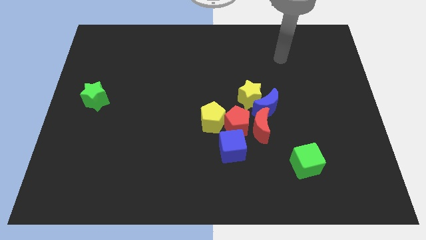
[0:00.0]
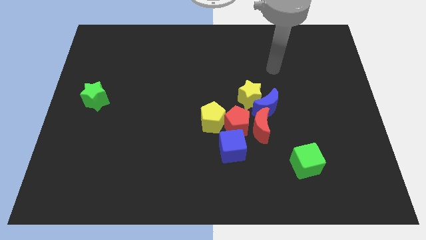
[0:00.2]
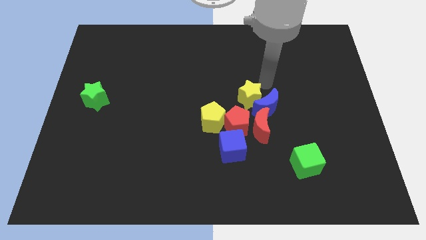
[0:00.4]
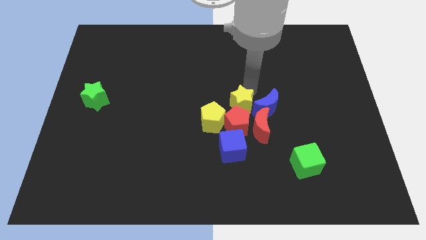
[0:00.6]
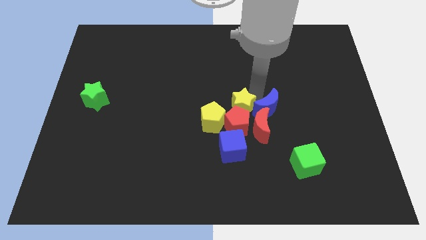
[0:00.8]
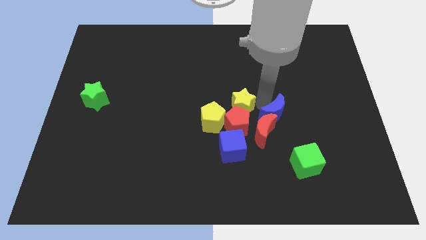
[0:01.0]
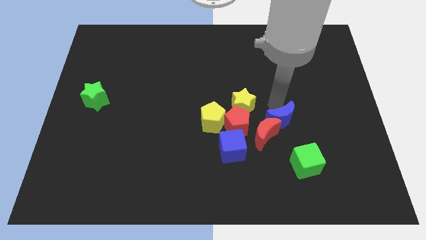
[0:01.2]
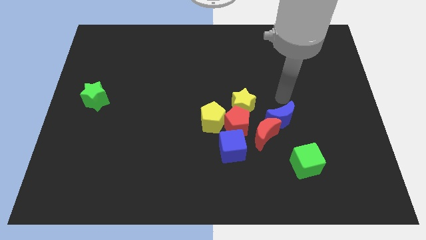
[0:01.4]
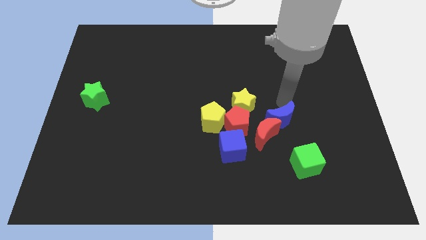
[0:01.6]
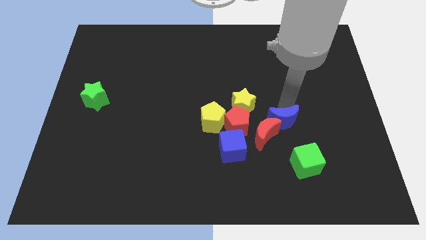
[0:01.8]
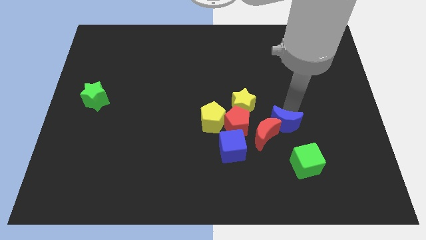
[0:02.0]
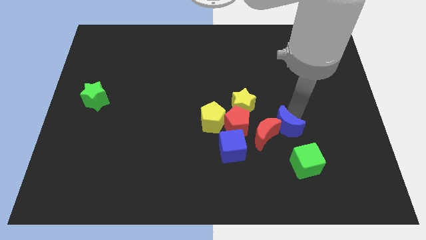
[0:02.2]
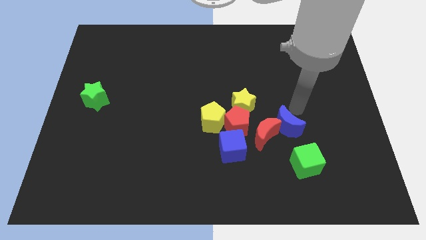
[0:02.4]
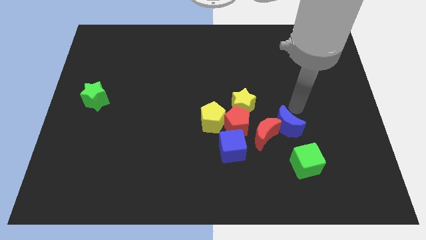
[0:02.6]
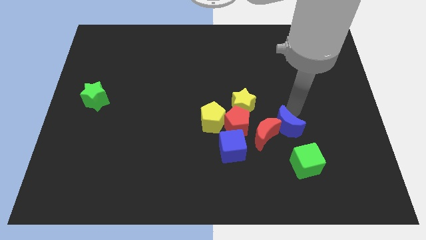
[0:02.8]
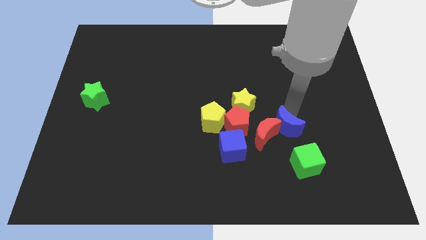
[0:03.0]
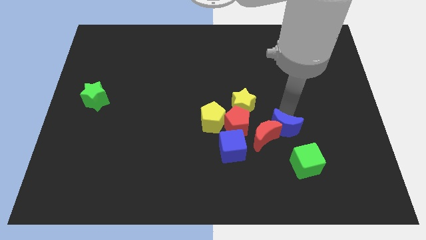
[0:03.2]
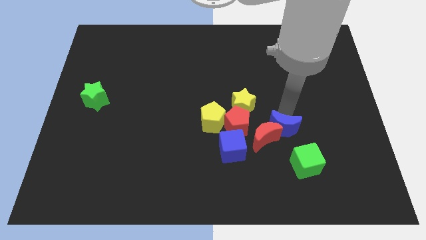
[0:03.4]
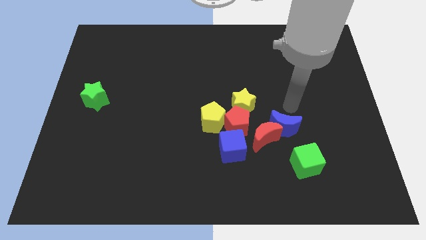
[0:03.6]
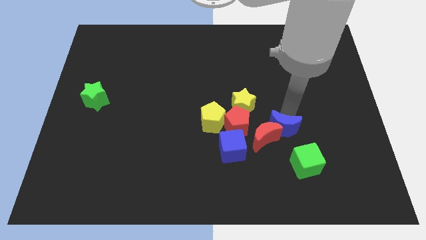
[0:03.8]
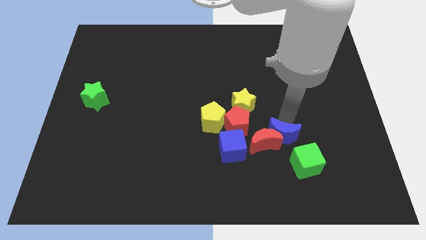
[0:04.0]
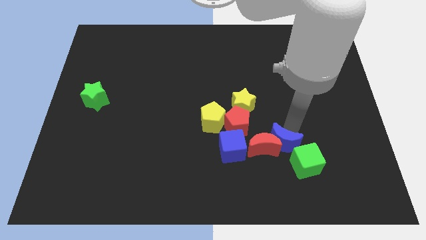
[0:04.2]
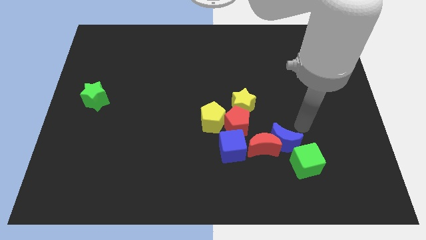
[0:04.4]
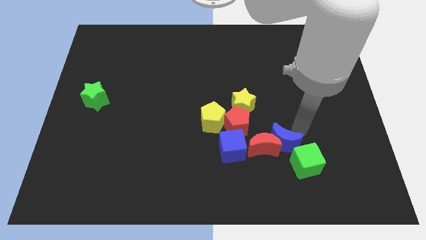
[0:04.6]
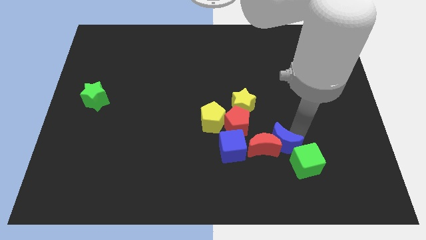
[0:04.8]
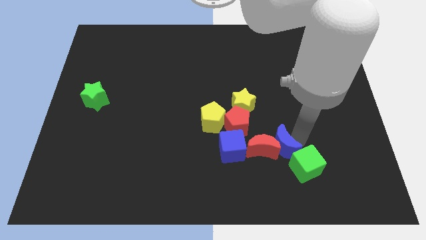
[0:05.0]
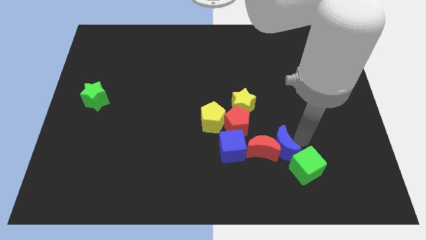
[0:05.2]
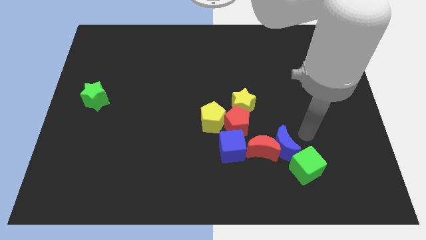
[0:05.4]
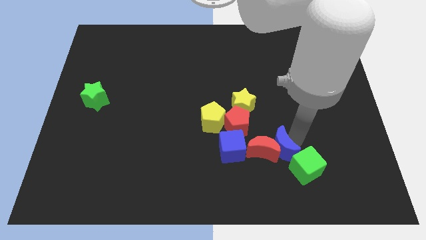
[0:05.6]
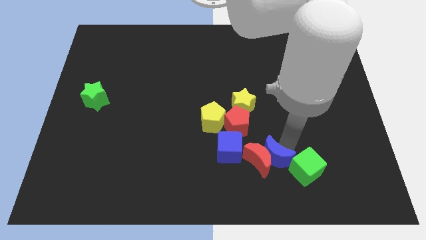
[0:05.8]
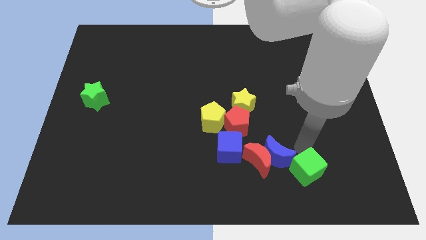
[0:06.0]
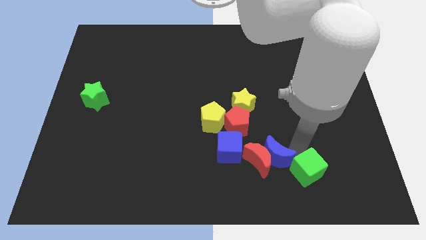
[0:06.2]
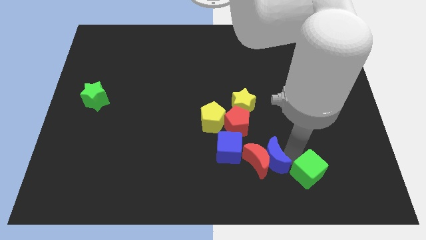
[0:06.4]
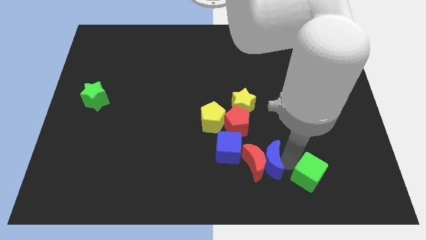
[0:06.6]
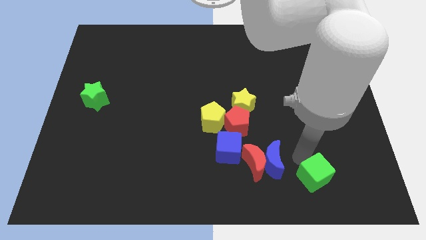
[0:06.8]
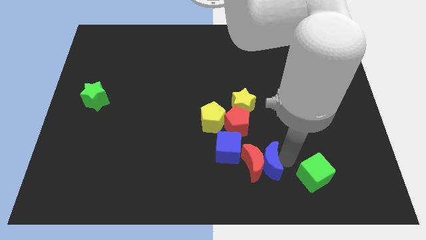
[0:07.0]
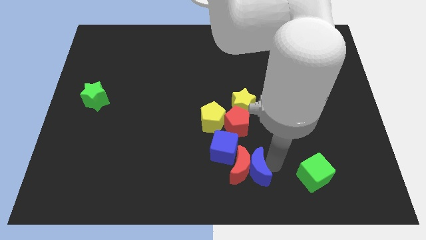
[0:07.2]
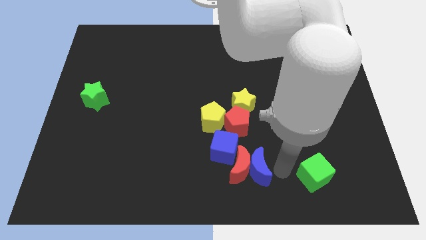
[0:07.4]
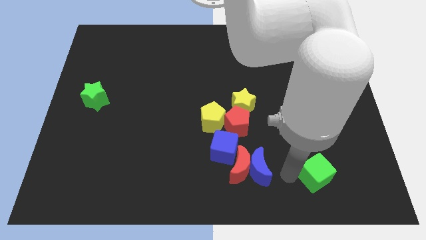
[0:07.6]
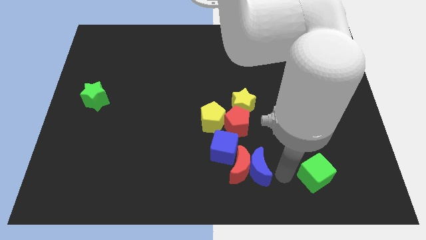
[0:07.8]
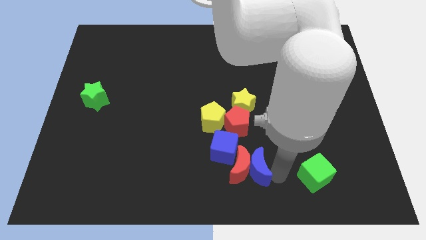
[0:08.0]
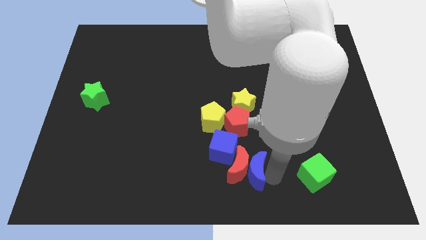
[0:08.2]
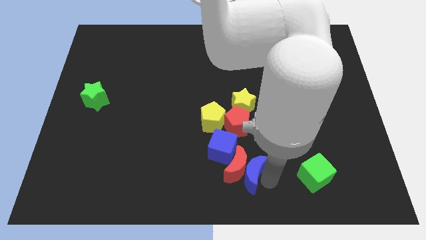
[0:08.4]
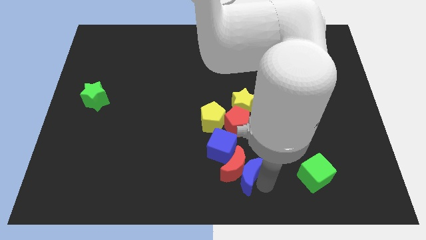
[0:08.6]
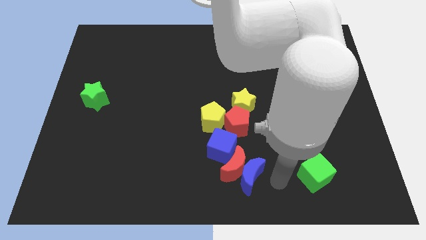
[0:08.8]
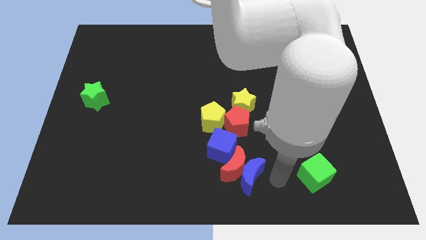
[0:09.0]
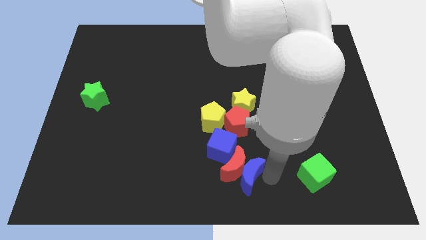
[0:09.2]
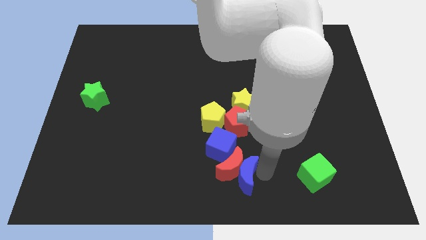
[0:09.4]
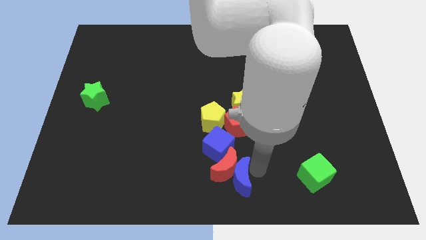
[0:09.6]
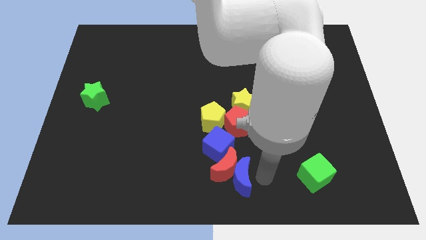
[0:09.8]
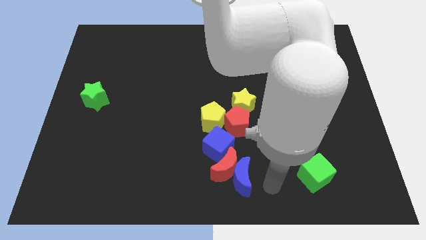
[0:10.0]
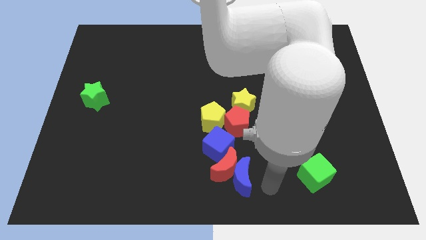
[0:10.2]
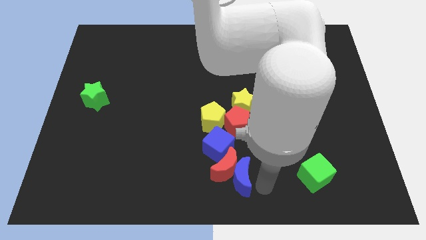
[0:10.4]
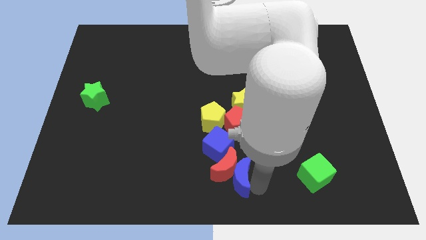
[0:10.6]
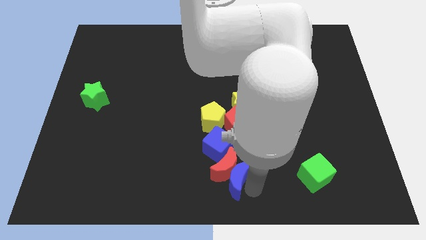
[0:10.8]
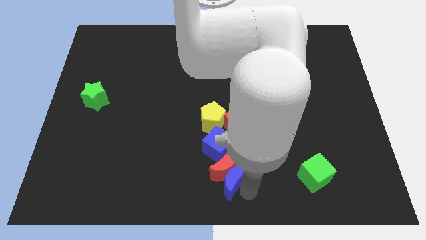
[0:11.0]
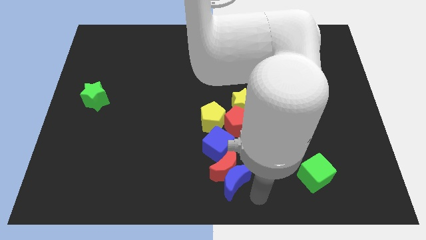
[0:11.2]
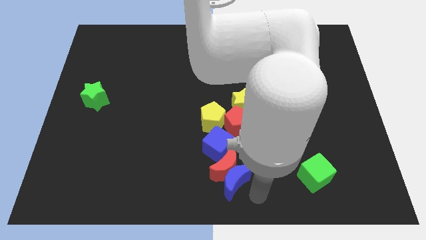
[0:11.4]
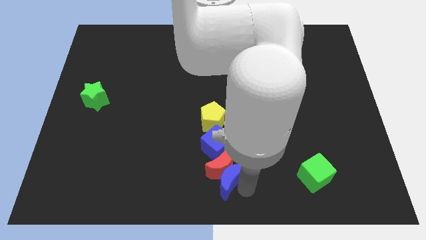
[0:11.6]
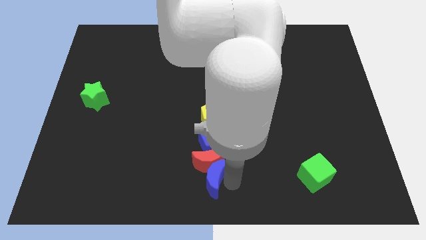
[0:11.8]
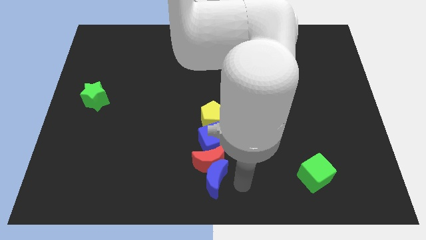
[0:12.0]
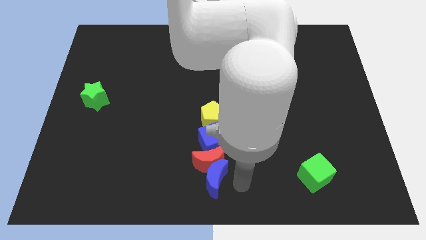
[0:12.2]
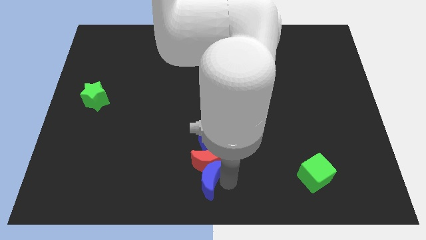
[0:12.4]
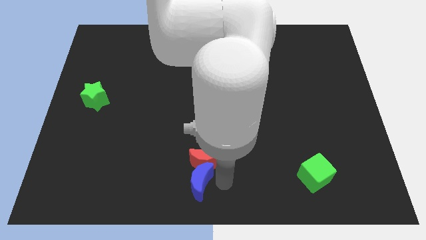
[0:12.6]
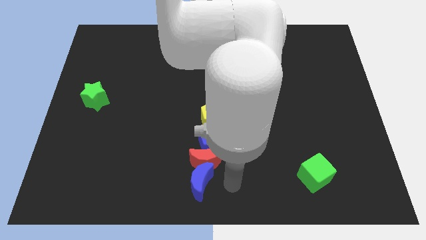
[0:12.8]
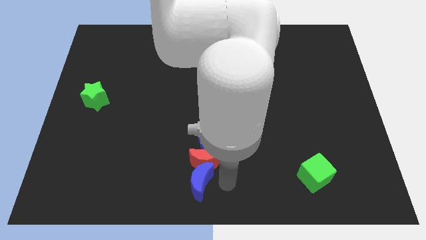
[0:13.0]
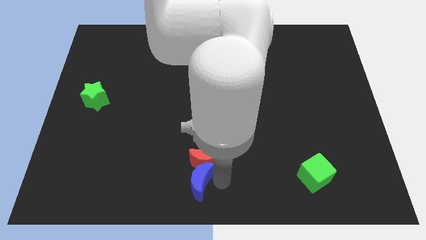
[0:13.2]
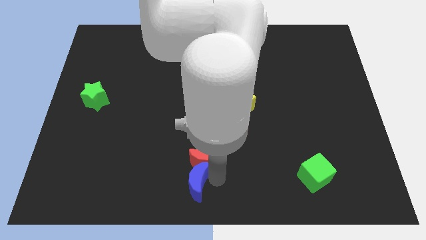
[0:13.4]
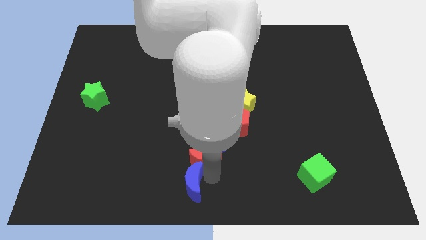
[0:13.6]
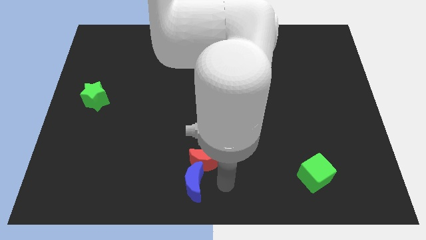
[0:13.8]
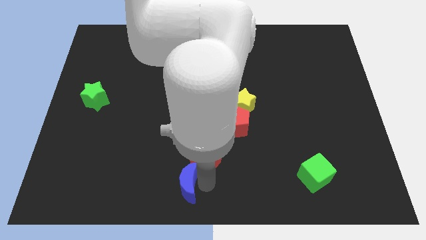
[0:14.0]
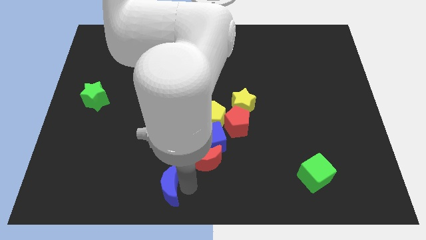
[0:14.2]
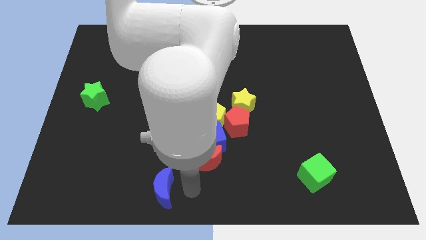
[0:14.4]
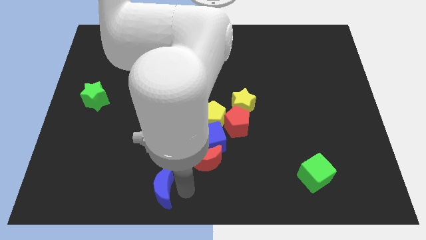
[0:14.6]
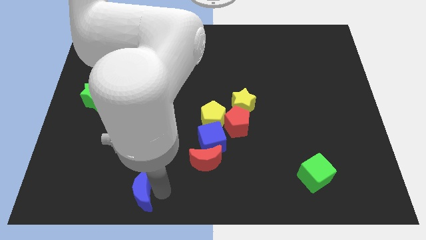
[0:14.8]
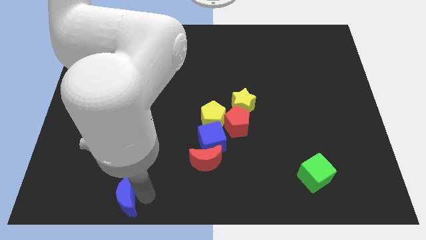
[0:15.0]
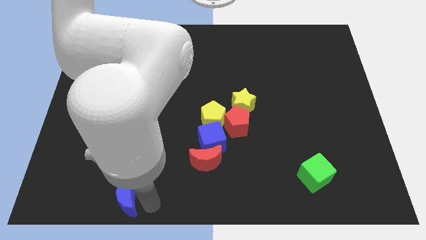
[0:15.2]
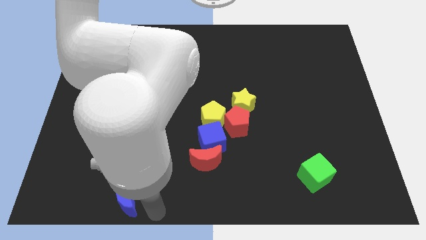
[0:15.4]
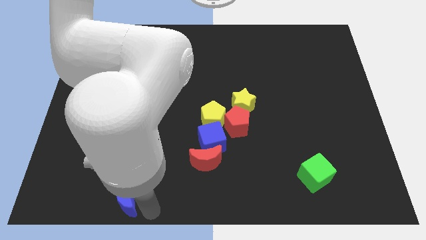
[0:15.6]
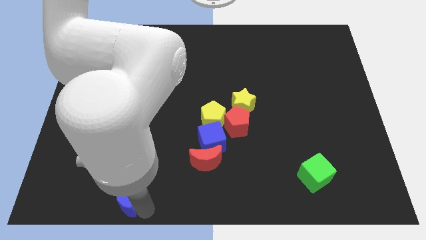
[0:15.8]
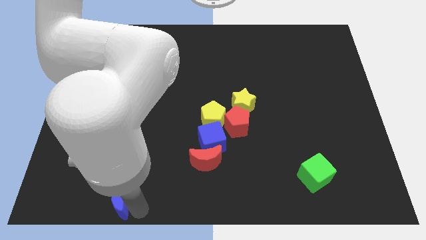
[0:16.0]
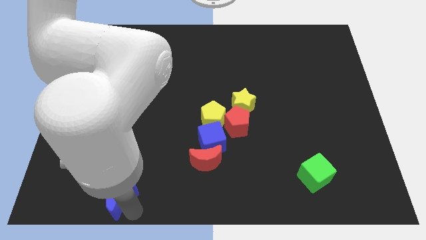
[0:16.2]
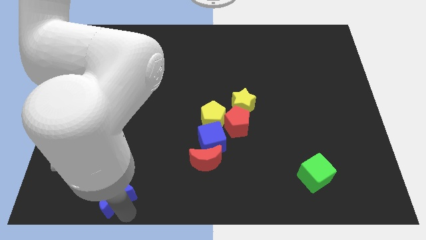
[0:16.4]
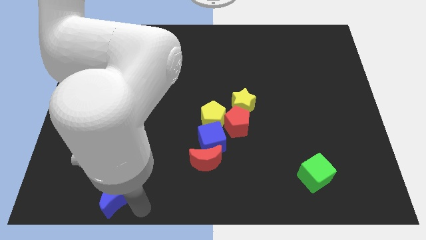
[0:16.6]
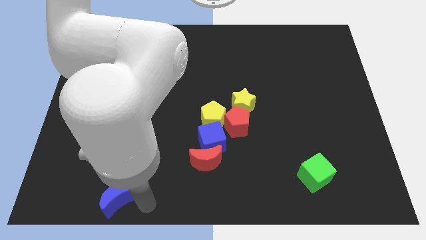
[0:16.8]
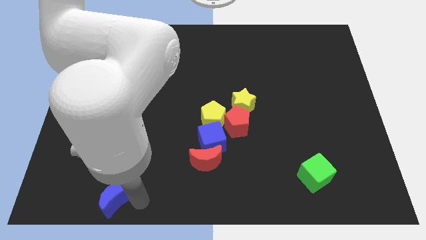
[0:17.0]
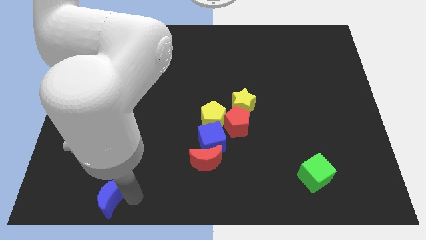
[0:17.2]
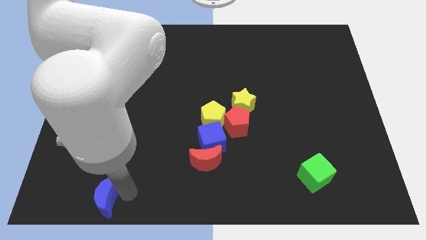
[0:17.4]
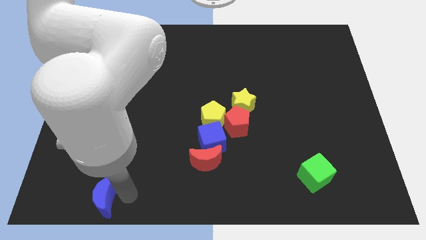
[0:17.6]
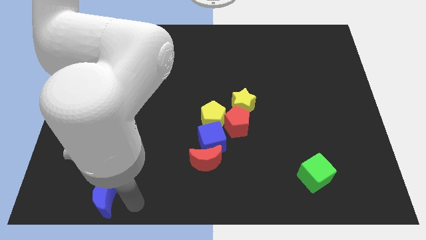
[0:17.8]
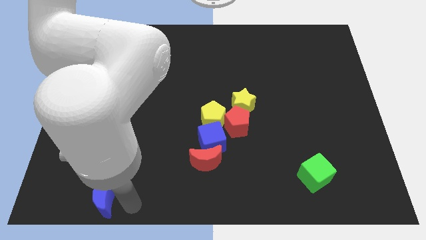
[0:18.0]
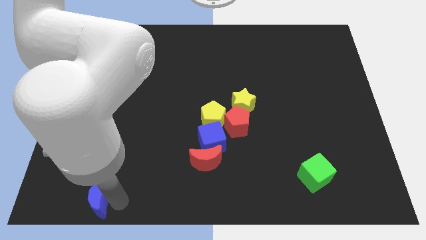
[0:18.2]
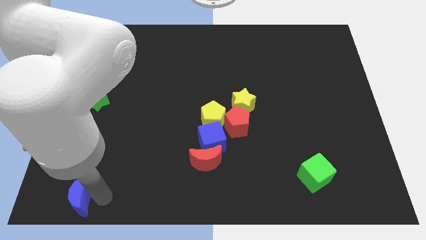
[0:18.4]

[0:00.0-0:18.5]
push the blue moon to the bottom left
